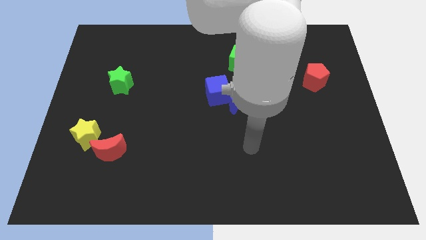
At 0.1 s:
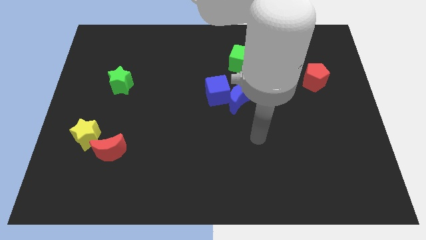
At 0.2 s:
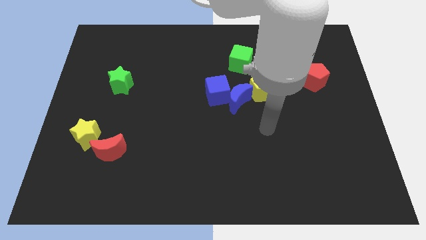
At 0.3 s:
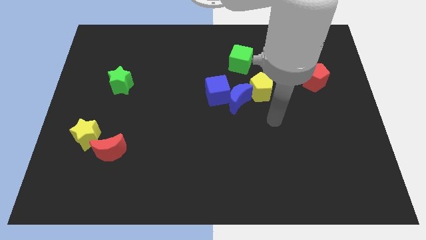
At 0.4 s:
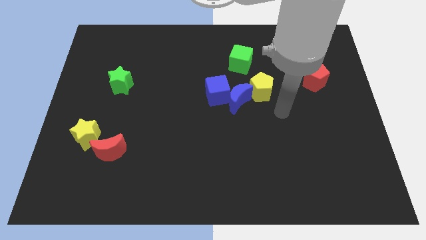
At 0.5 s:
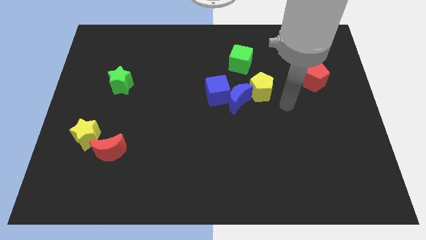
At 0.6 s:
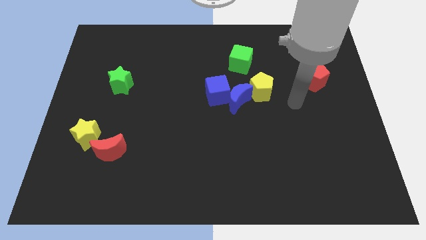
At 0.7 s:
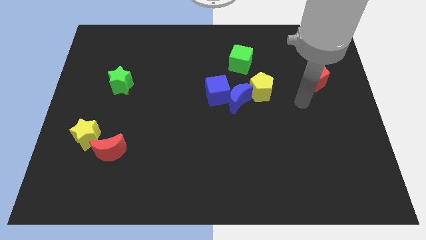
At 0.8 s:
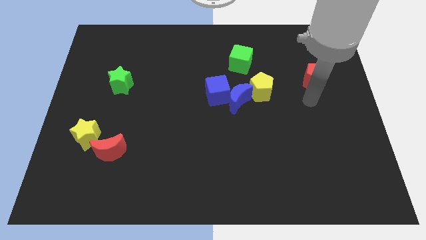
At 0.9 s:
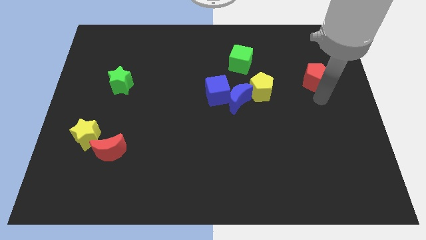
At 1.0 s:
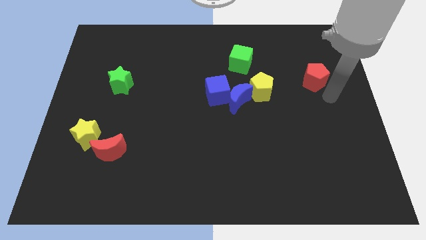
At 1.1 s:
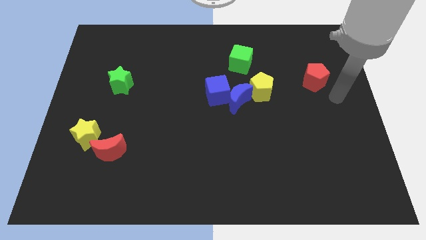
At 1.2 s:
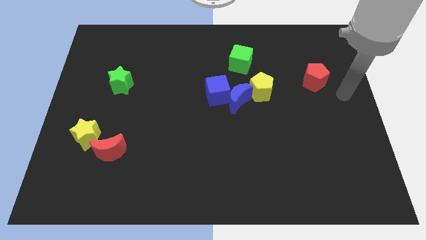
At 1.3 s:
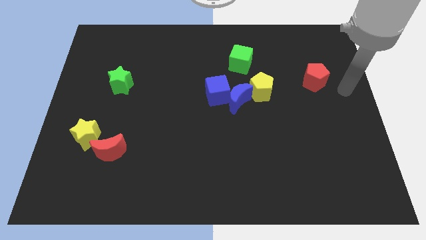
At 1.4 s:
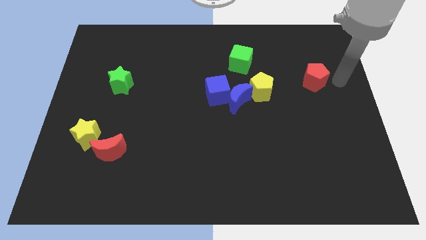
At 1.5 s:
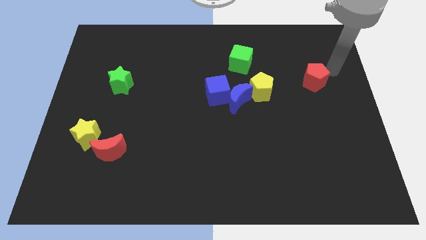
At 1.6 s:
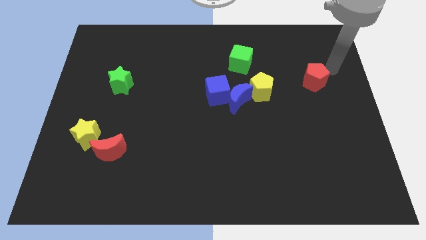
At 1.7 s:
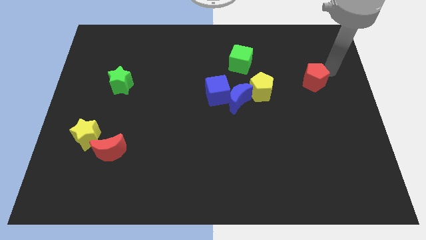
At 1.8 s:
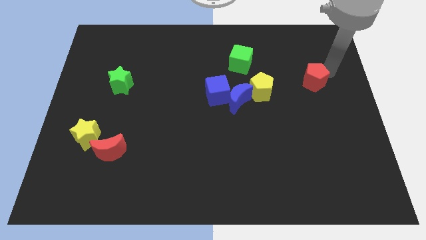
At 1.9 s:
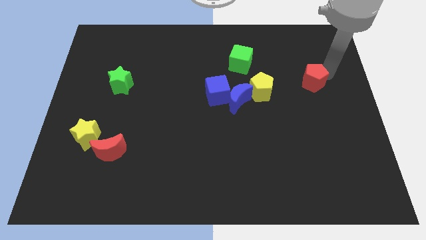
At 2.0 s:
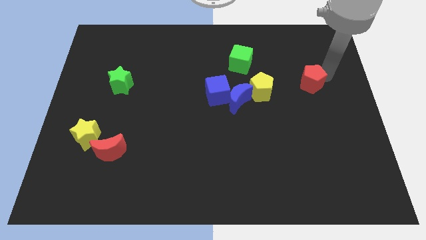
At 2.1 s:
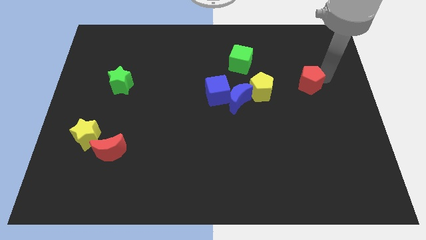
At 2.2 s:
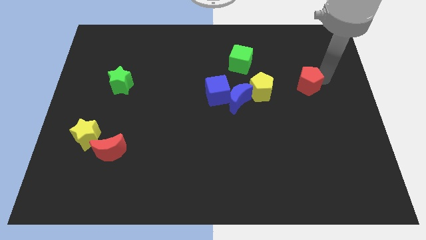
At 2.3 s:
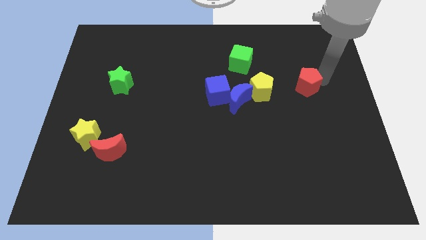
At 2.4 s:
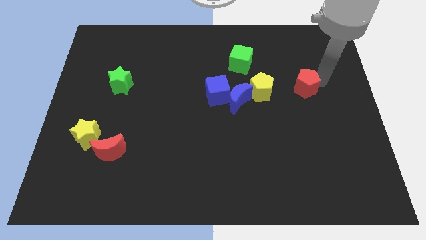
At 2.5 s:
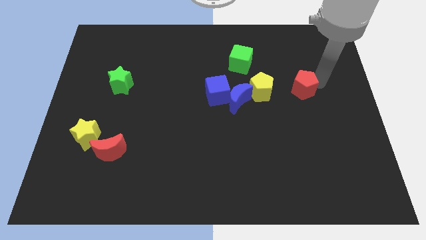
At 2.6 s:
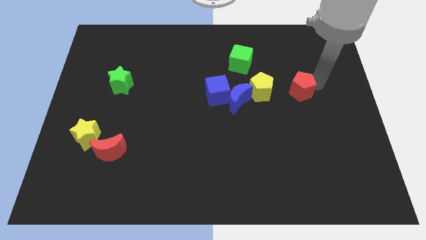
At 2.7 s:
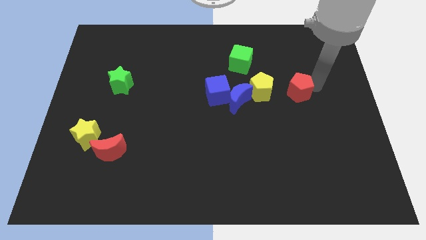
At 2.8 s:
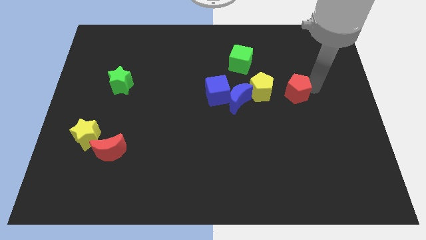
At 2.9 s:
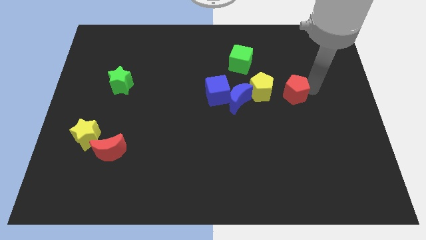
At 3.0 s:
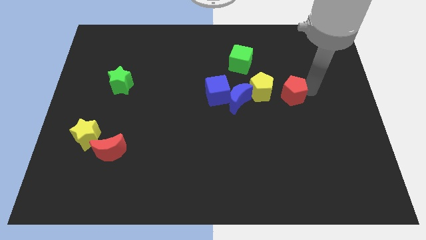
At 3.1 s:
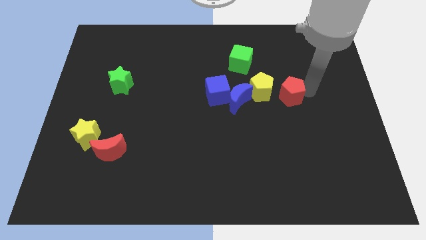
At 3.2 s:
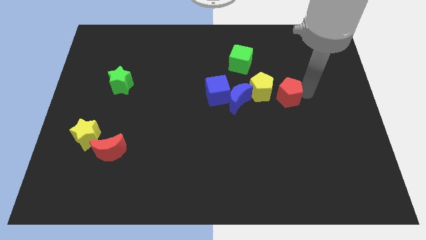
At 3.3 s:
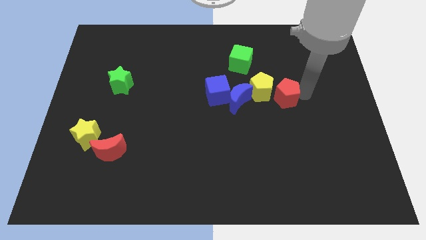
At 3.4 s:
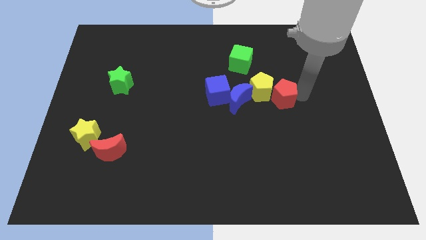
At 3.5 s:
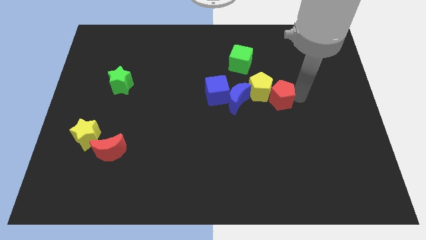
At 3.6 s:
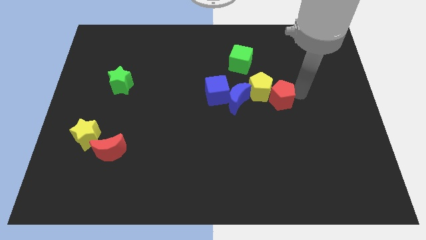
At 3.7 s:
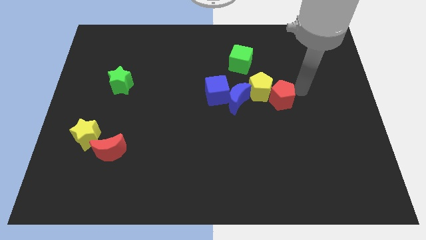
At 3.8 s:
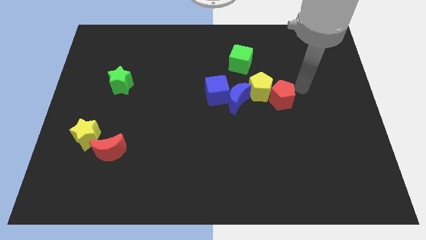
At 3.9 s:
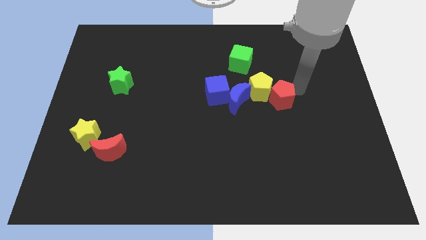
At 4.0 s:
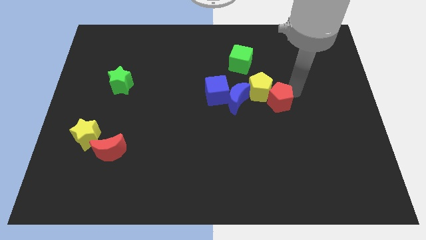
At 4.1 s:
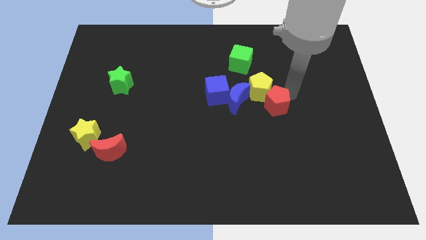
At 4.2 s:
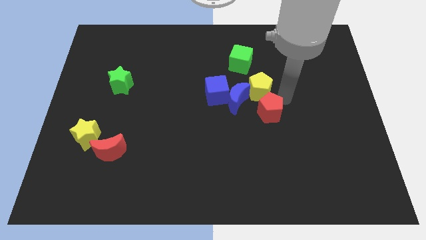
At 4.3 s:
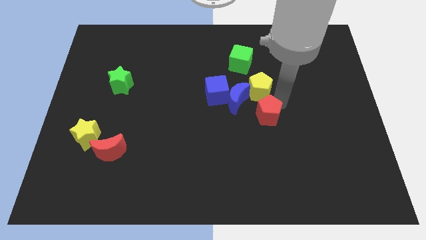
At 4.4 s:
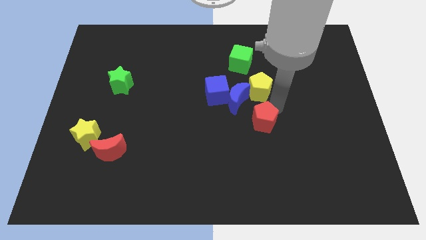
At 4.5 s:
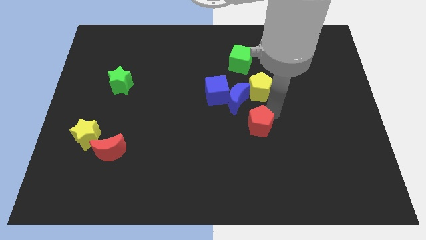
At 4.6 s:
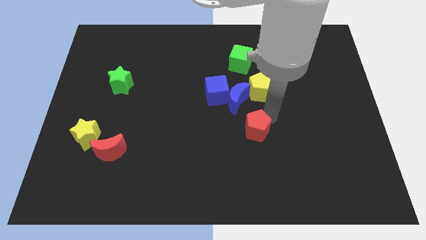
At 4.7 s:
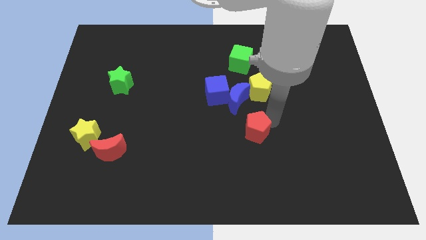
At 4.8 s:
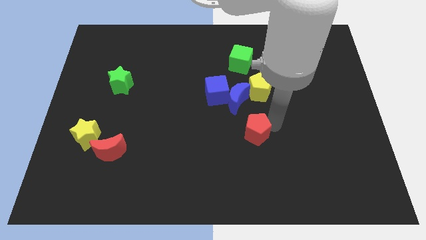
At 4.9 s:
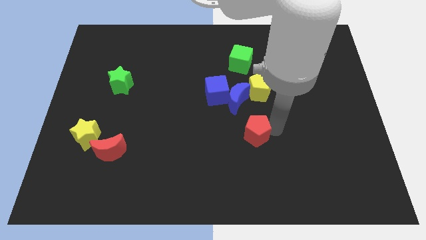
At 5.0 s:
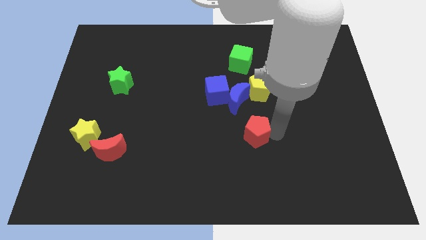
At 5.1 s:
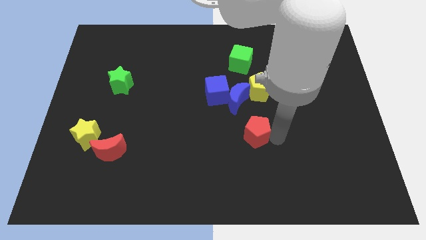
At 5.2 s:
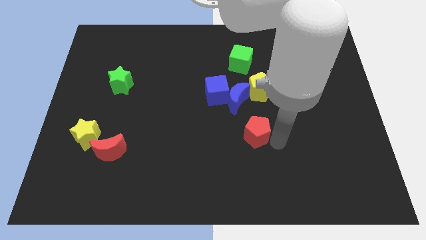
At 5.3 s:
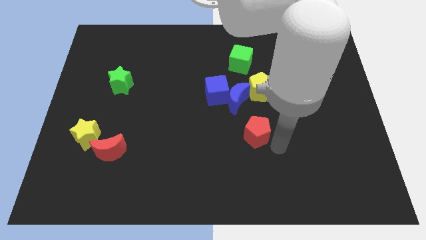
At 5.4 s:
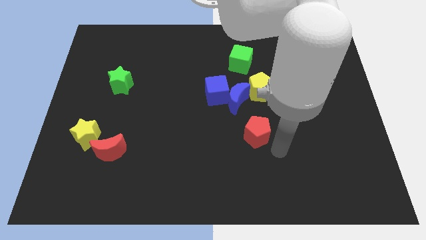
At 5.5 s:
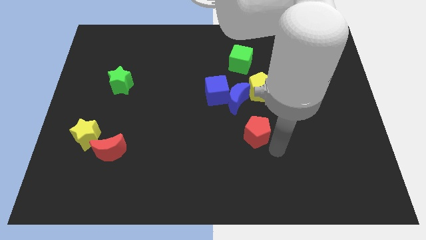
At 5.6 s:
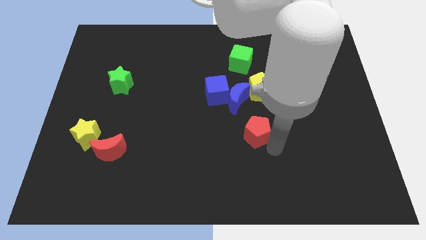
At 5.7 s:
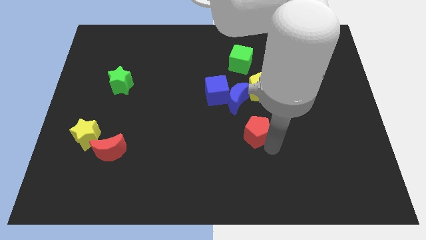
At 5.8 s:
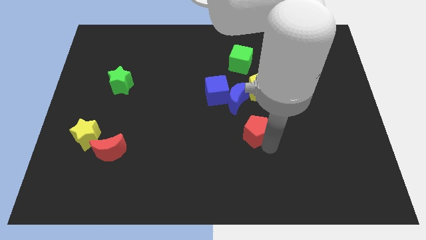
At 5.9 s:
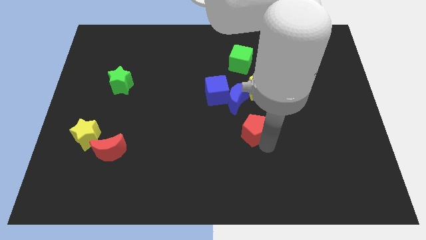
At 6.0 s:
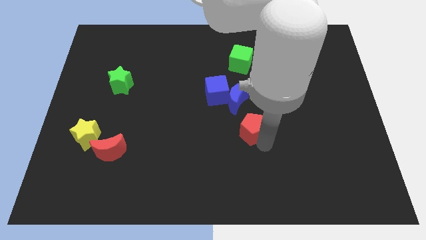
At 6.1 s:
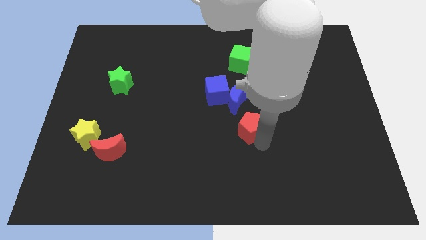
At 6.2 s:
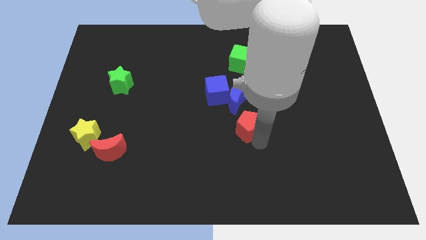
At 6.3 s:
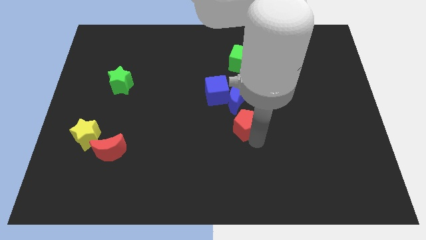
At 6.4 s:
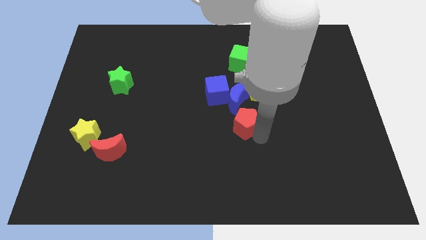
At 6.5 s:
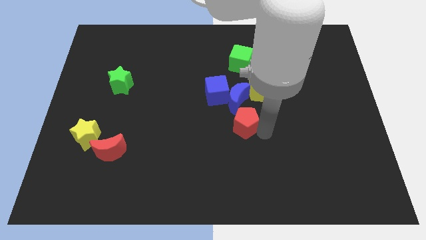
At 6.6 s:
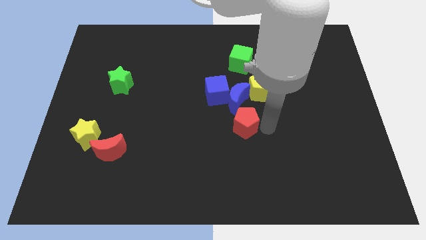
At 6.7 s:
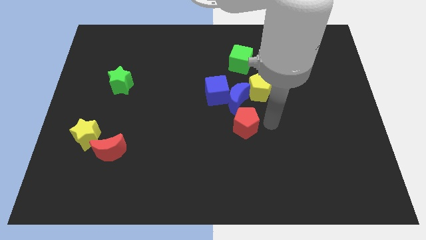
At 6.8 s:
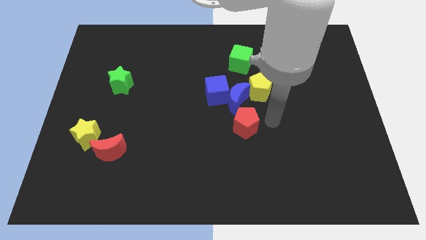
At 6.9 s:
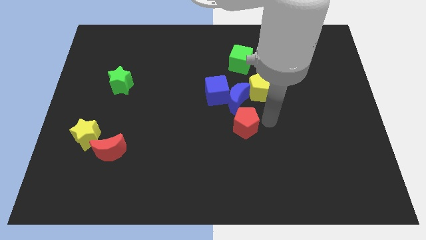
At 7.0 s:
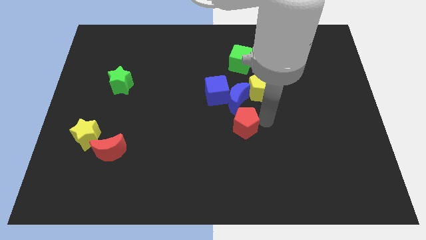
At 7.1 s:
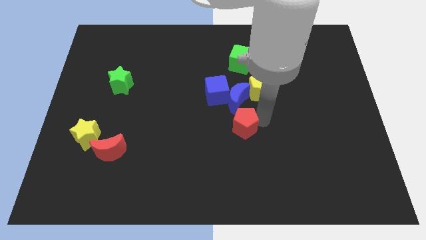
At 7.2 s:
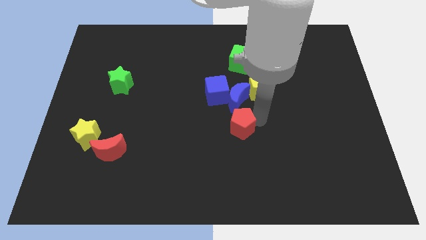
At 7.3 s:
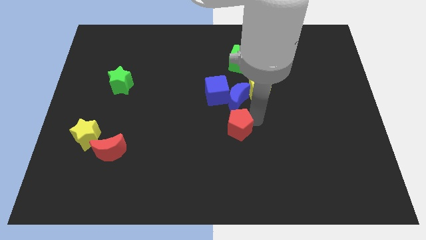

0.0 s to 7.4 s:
slide the red pentagon to the bottom side of the blue cube
